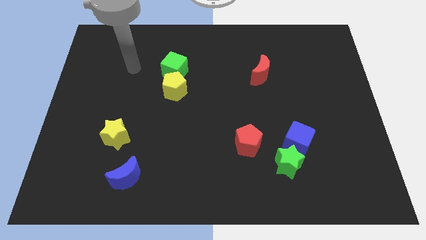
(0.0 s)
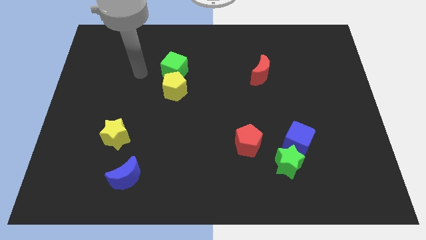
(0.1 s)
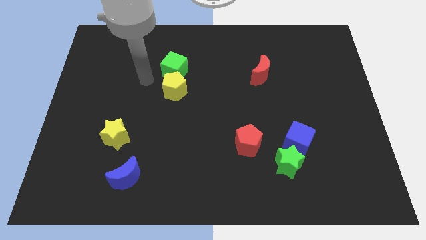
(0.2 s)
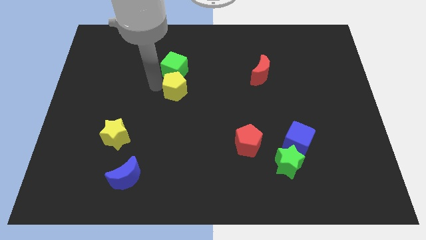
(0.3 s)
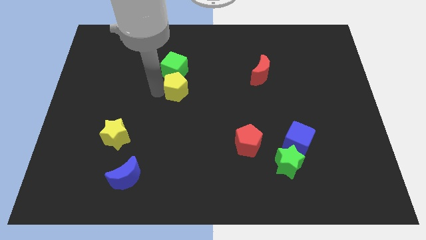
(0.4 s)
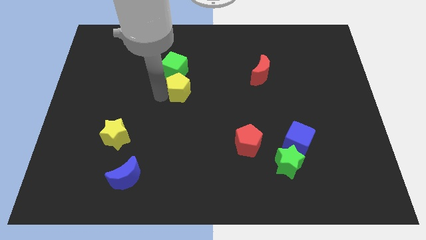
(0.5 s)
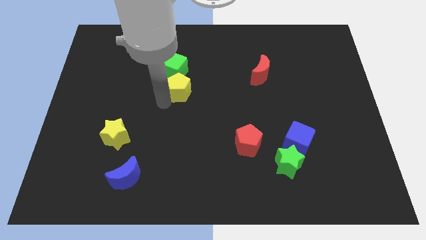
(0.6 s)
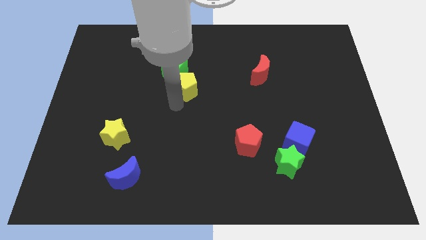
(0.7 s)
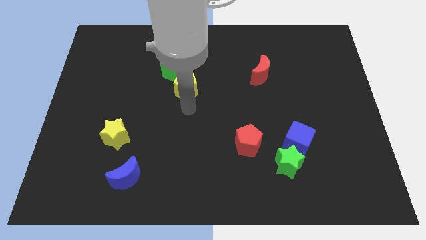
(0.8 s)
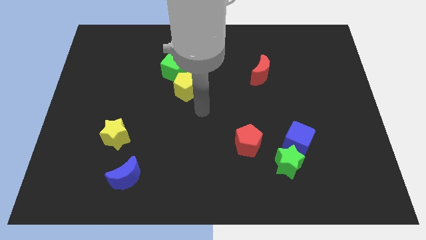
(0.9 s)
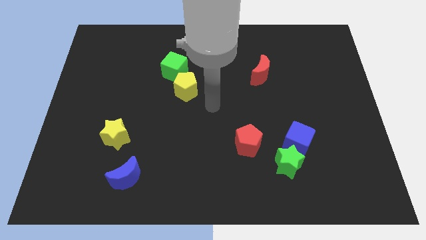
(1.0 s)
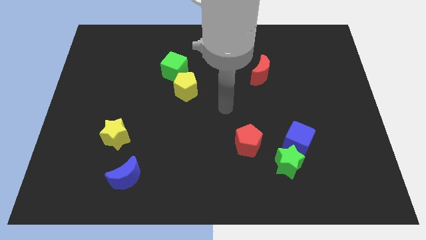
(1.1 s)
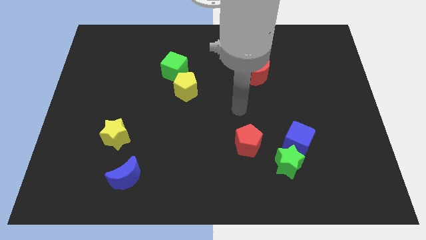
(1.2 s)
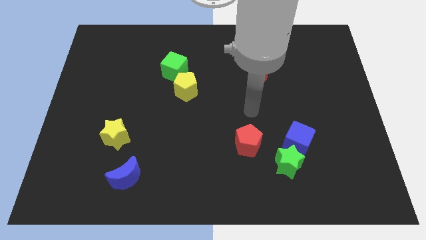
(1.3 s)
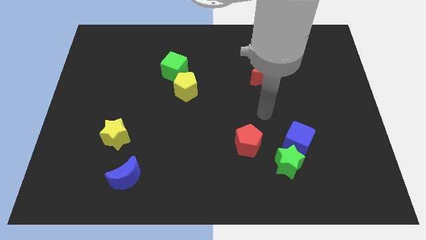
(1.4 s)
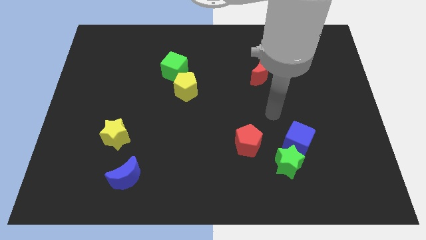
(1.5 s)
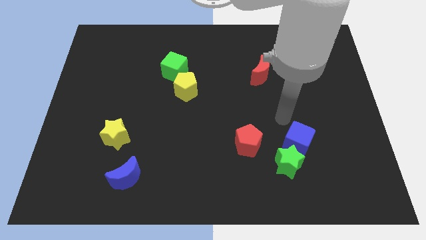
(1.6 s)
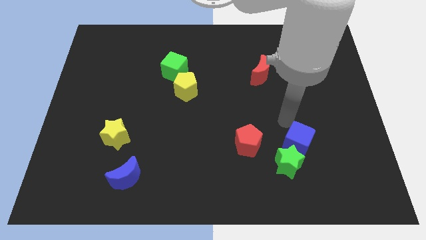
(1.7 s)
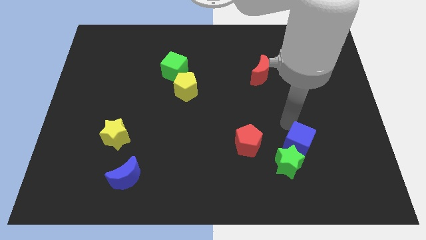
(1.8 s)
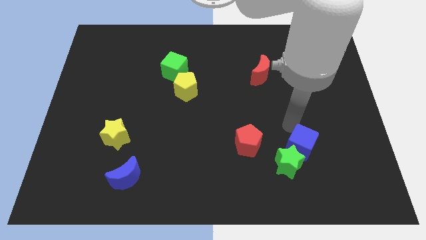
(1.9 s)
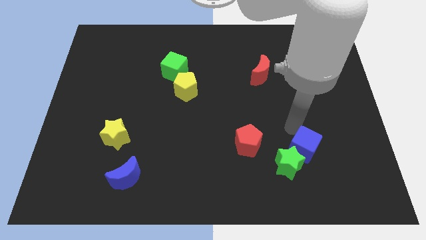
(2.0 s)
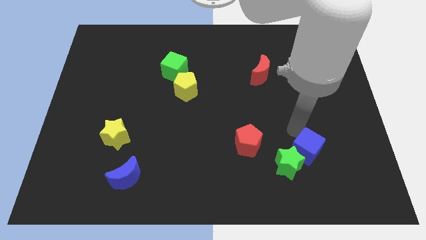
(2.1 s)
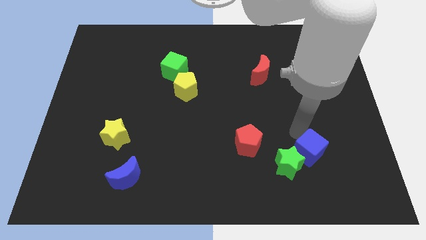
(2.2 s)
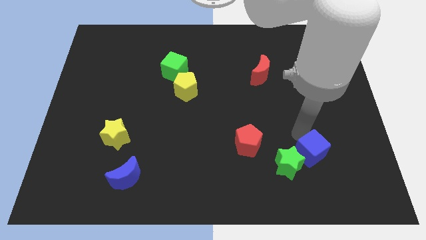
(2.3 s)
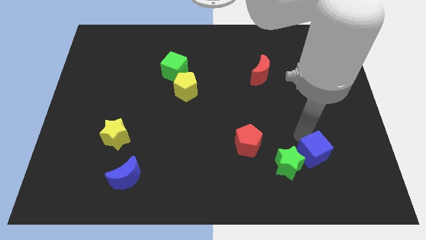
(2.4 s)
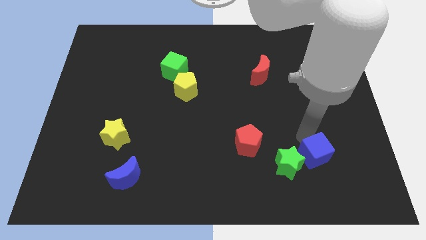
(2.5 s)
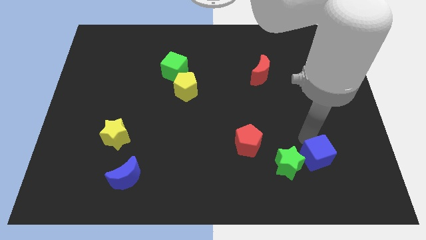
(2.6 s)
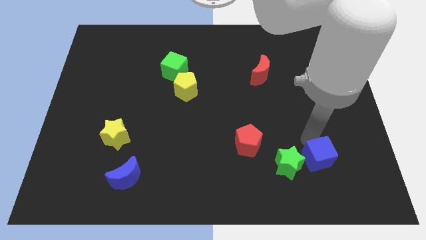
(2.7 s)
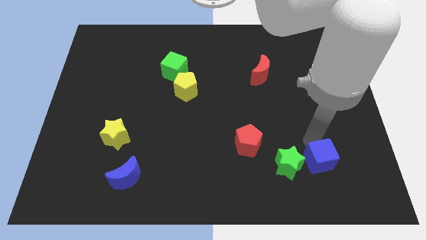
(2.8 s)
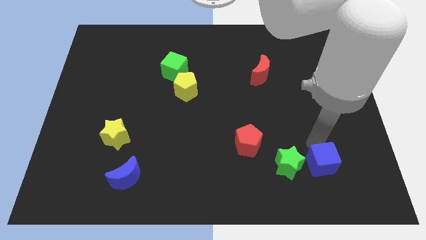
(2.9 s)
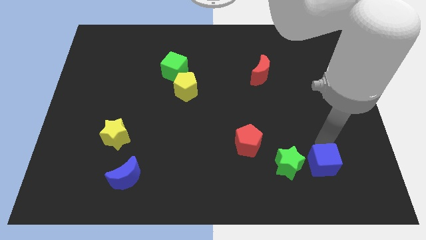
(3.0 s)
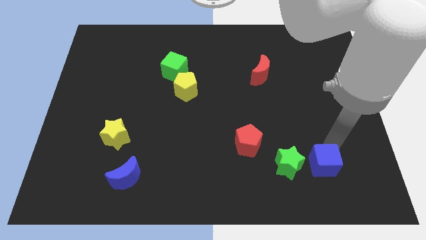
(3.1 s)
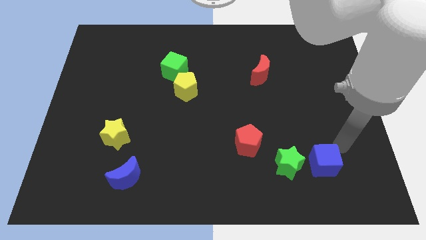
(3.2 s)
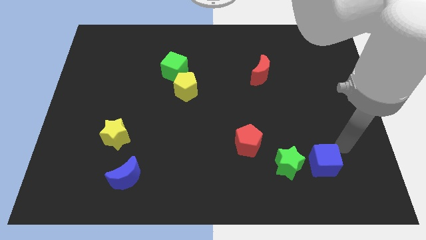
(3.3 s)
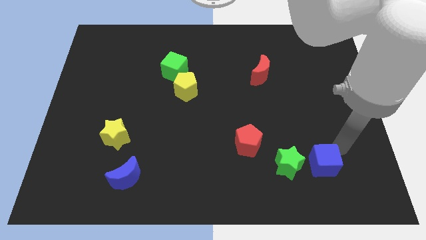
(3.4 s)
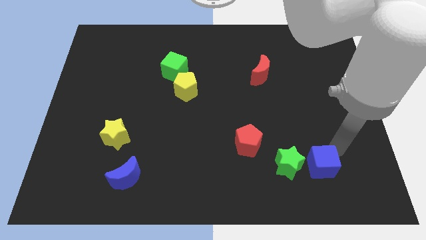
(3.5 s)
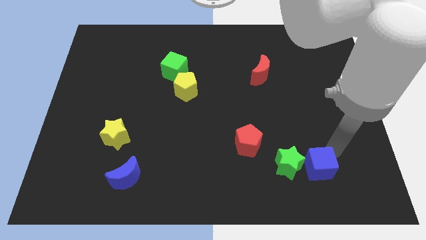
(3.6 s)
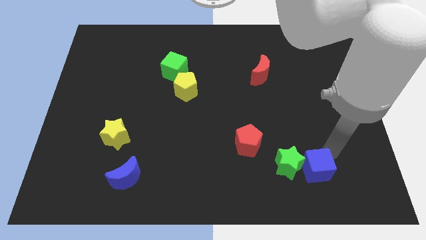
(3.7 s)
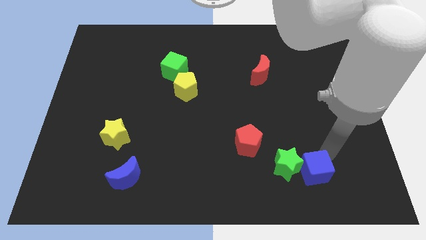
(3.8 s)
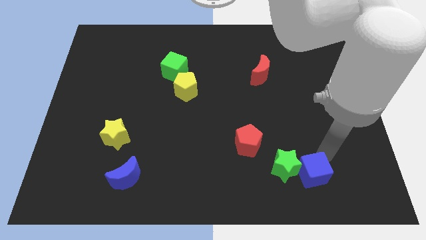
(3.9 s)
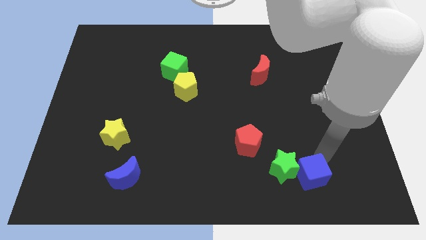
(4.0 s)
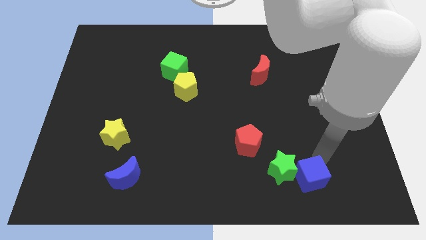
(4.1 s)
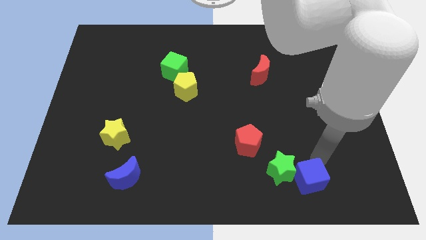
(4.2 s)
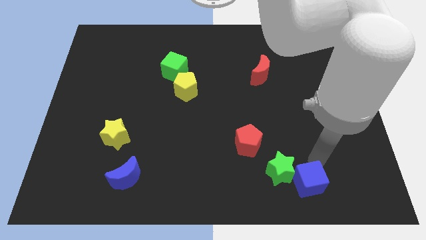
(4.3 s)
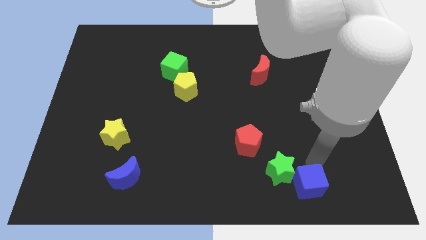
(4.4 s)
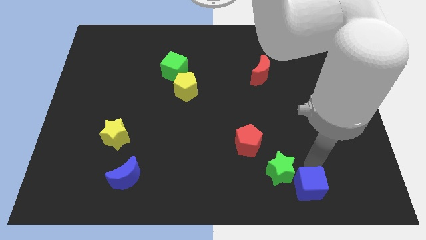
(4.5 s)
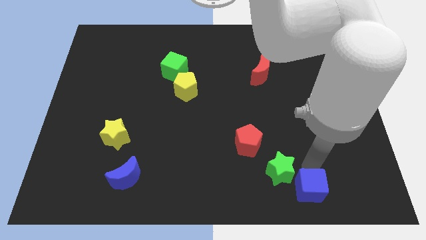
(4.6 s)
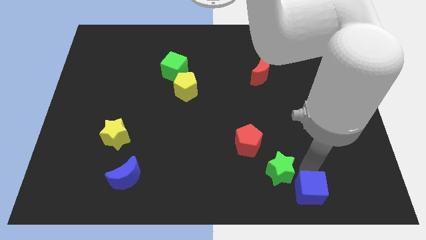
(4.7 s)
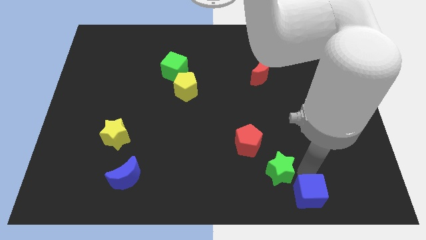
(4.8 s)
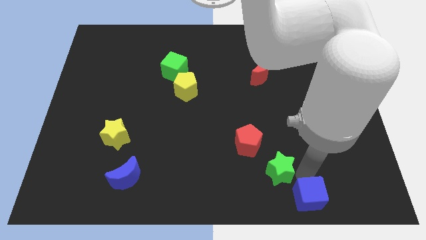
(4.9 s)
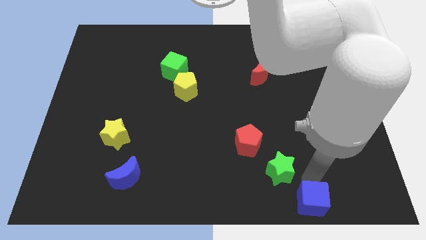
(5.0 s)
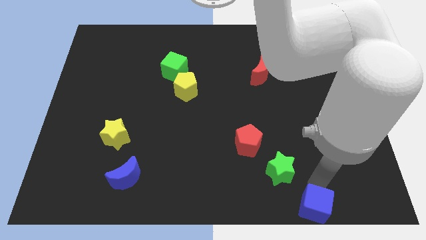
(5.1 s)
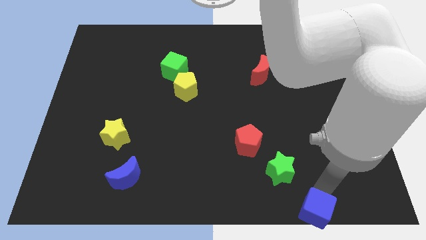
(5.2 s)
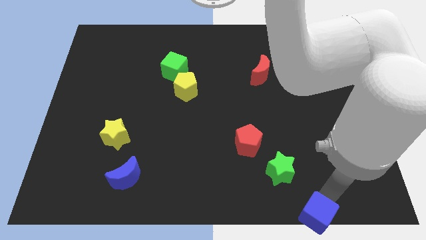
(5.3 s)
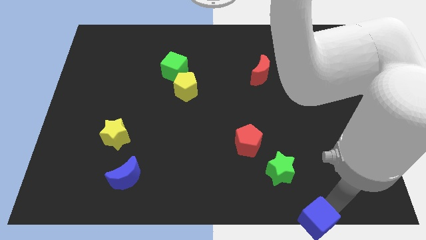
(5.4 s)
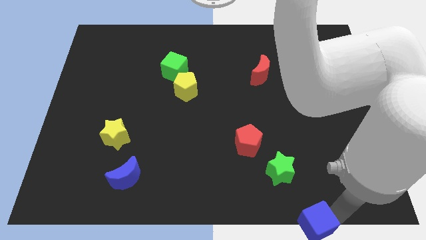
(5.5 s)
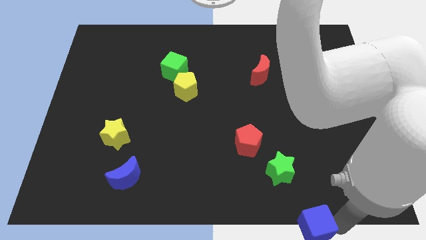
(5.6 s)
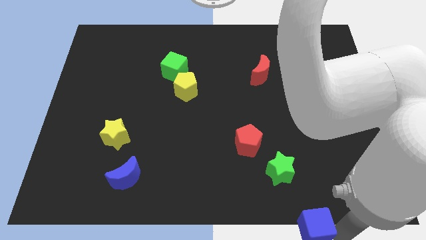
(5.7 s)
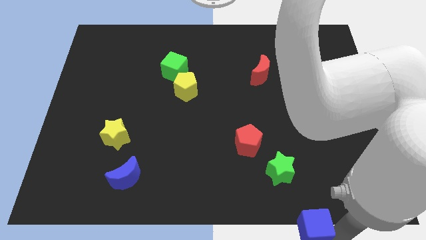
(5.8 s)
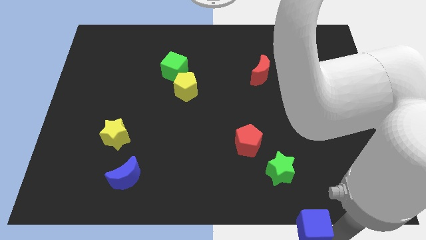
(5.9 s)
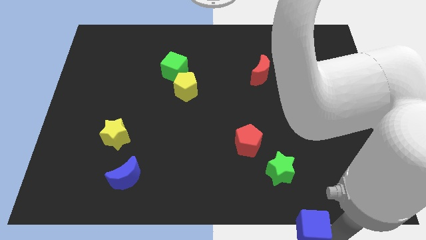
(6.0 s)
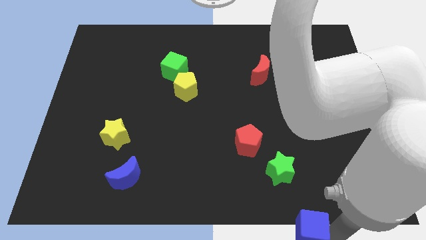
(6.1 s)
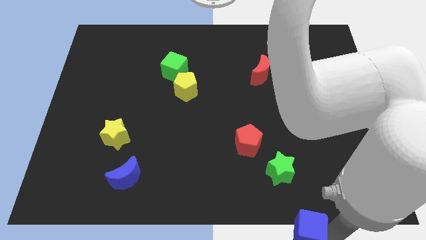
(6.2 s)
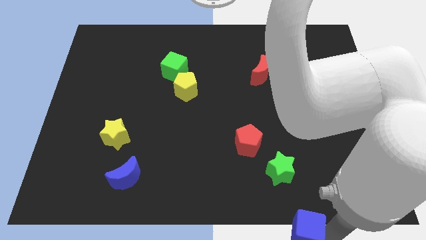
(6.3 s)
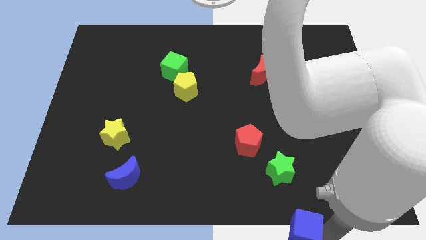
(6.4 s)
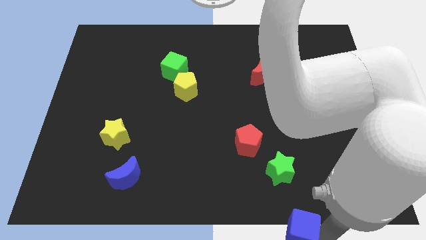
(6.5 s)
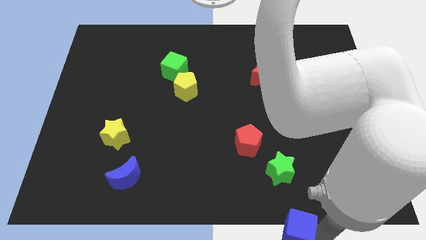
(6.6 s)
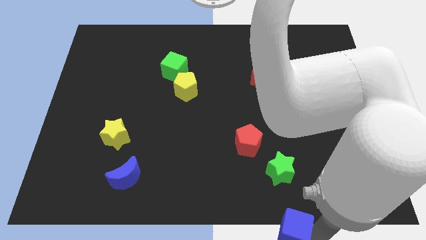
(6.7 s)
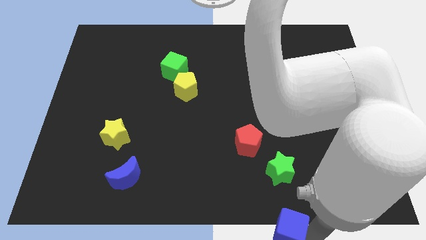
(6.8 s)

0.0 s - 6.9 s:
slide the blue cube to the bottom side

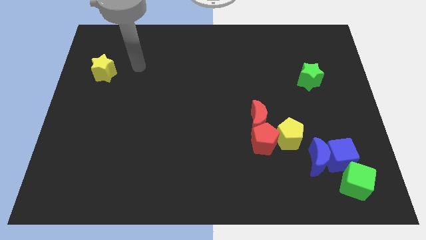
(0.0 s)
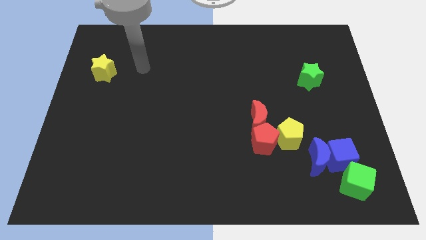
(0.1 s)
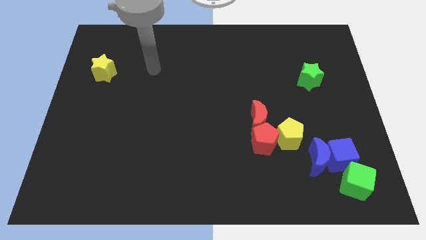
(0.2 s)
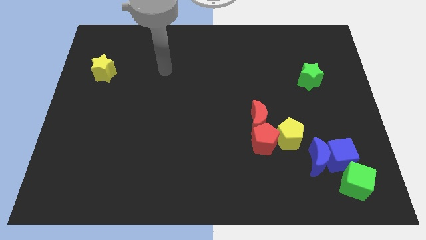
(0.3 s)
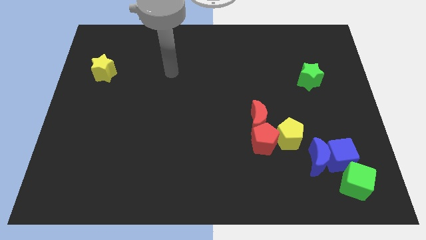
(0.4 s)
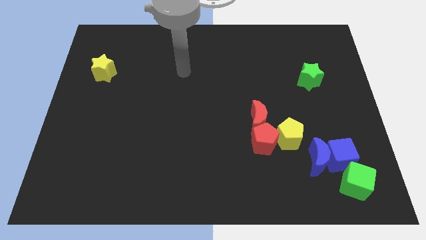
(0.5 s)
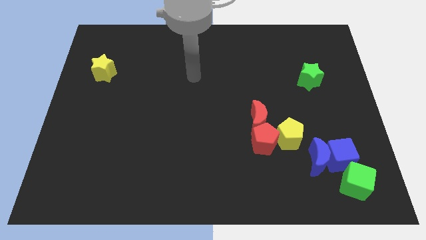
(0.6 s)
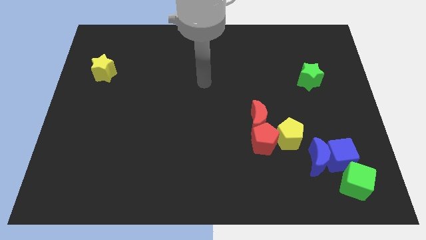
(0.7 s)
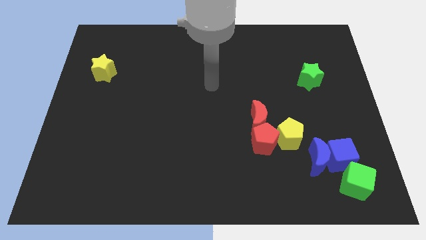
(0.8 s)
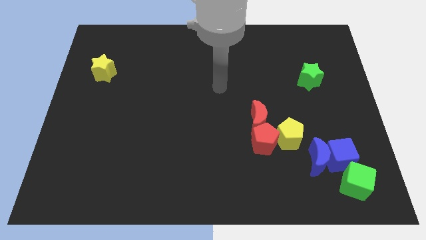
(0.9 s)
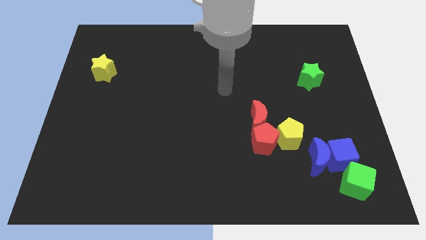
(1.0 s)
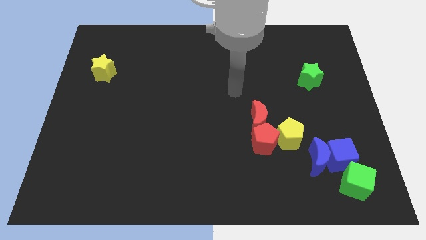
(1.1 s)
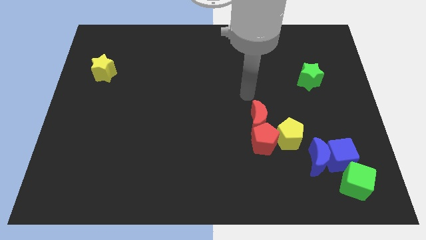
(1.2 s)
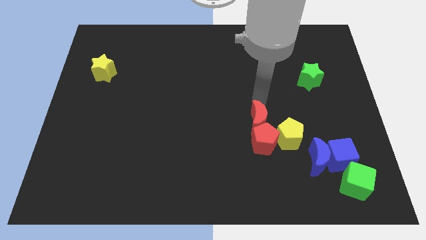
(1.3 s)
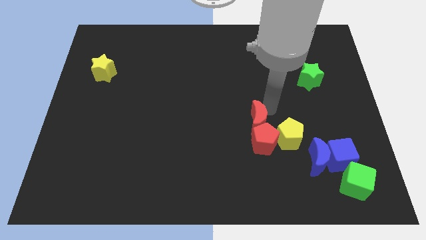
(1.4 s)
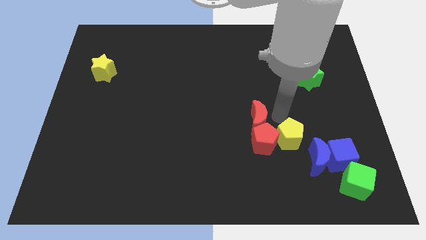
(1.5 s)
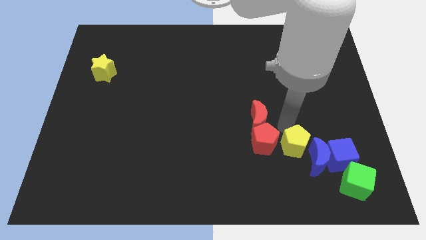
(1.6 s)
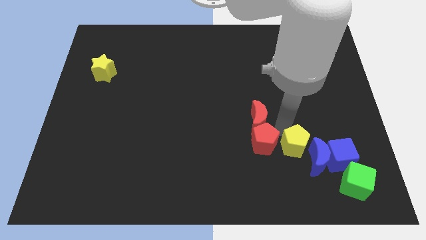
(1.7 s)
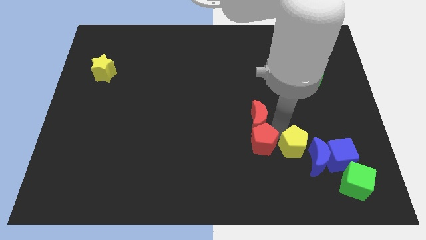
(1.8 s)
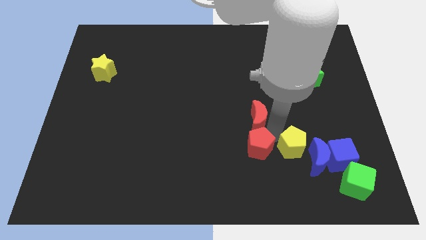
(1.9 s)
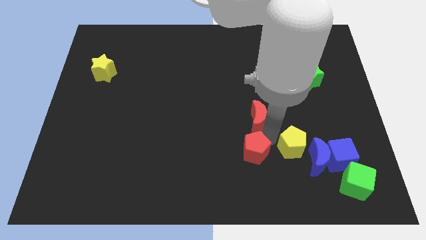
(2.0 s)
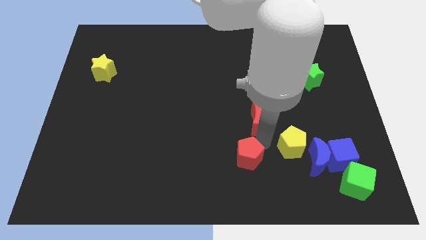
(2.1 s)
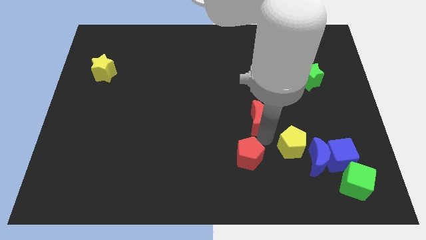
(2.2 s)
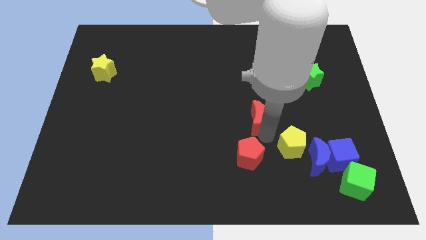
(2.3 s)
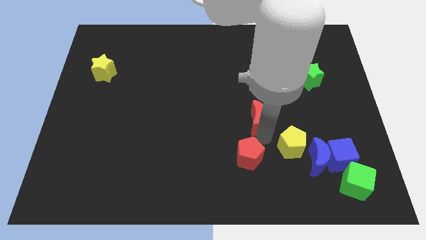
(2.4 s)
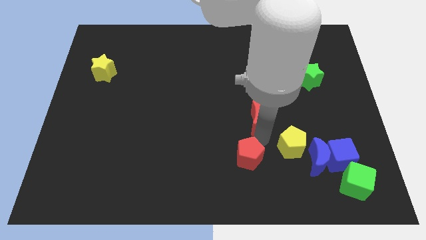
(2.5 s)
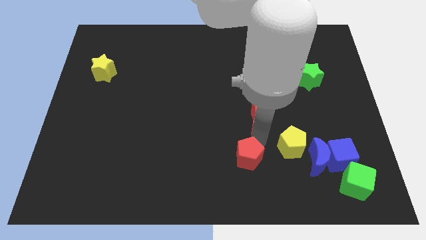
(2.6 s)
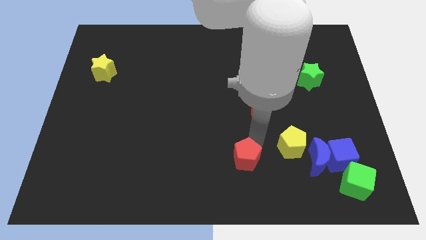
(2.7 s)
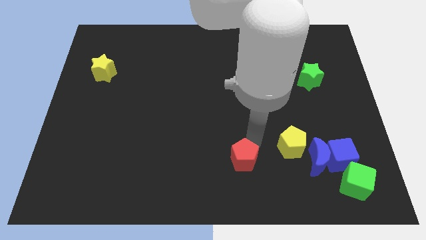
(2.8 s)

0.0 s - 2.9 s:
move the red pentagon to the bottom
